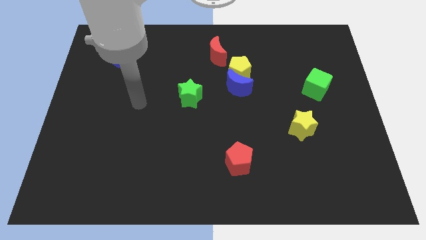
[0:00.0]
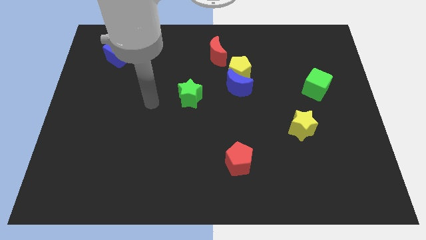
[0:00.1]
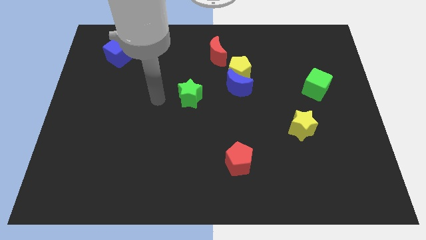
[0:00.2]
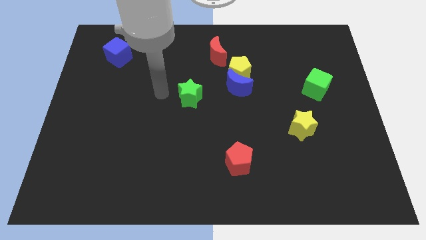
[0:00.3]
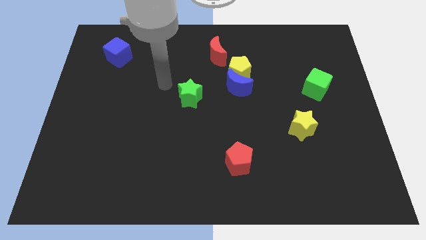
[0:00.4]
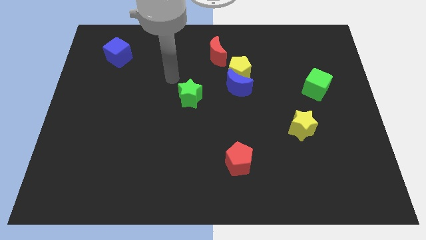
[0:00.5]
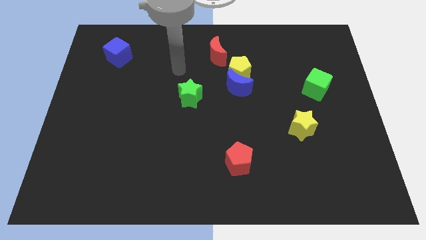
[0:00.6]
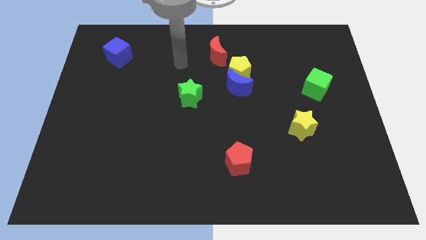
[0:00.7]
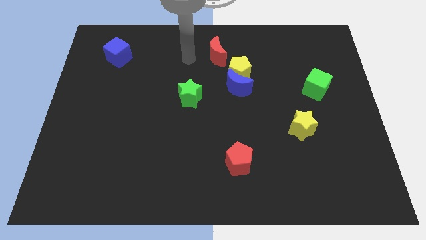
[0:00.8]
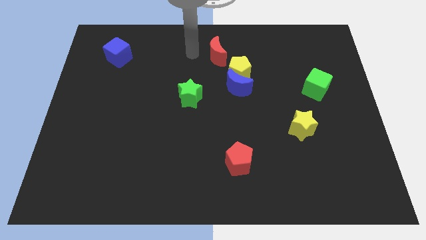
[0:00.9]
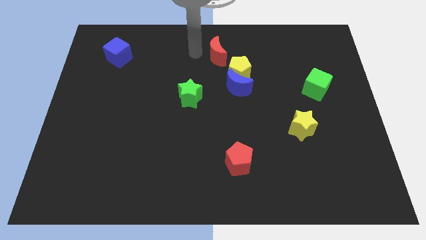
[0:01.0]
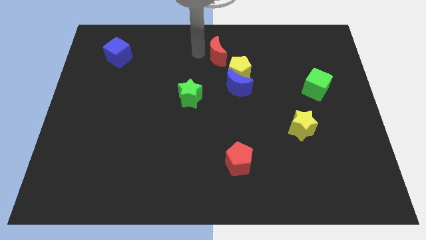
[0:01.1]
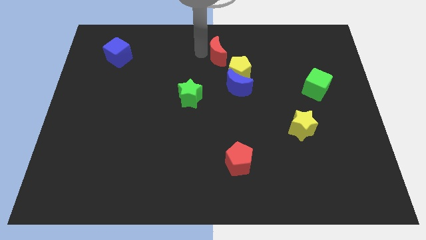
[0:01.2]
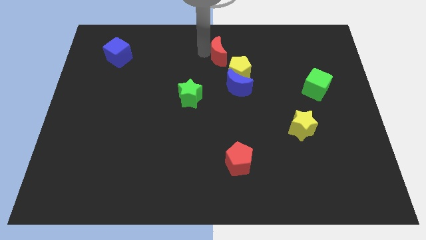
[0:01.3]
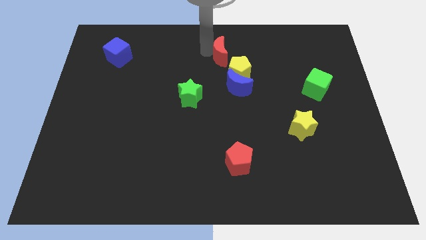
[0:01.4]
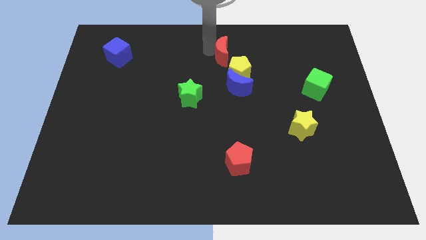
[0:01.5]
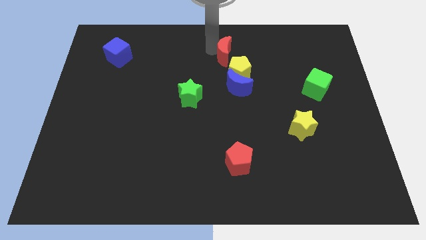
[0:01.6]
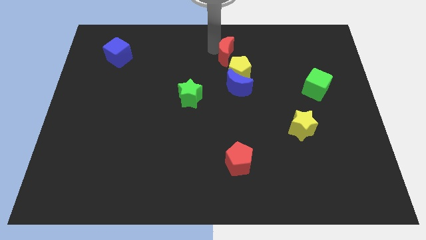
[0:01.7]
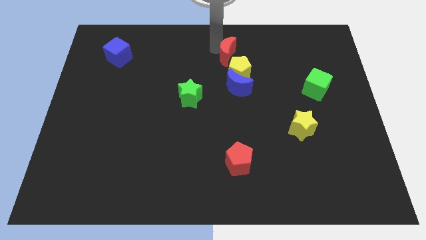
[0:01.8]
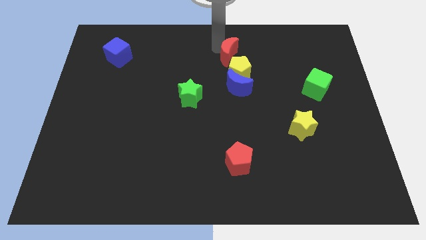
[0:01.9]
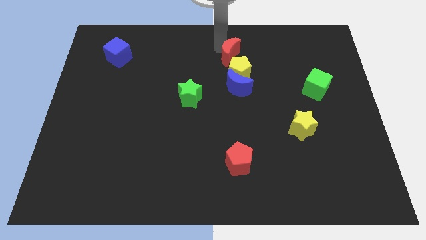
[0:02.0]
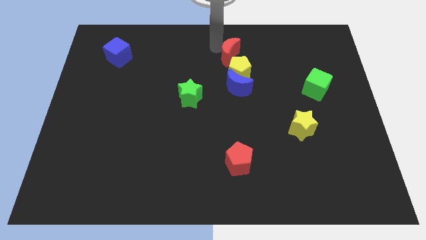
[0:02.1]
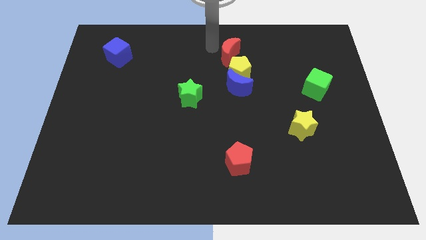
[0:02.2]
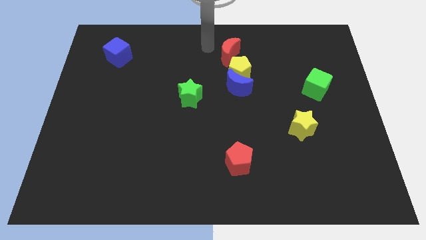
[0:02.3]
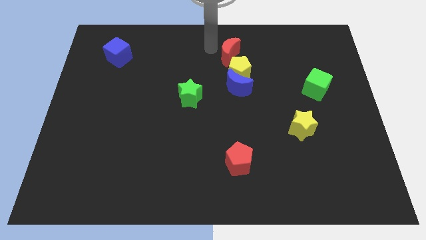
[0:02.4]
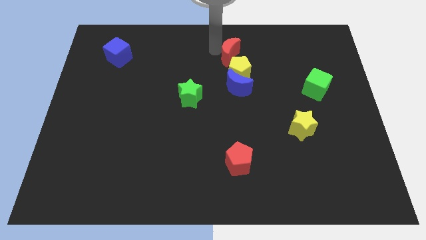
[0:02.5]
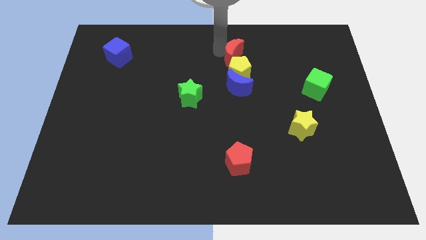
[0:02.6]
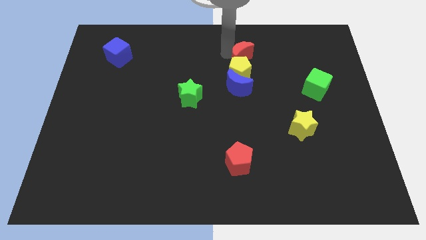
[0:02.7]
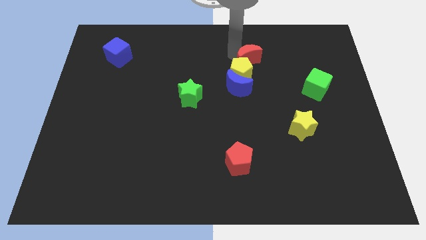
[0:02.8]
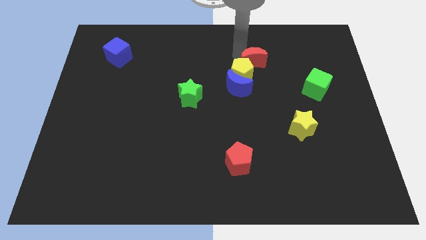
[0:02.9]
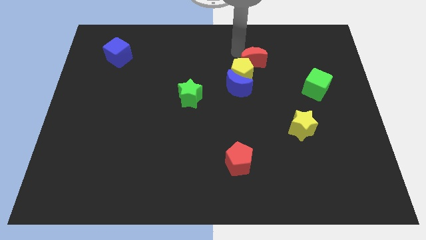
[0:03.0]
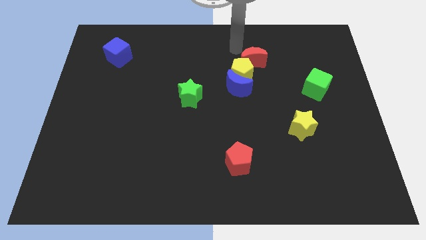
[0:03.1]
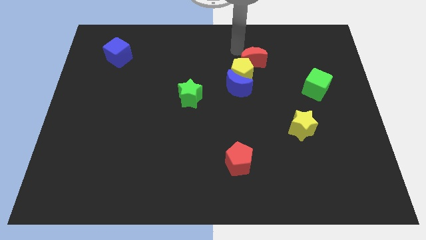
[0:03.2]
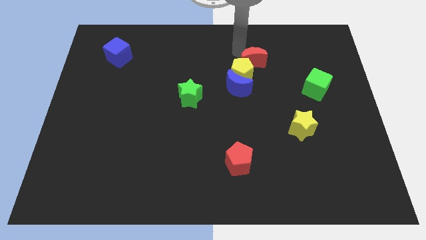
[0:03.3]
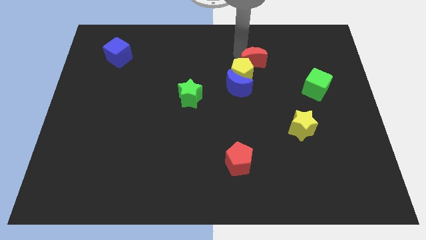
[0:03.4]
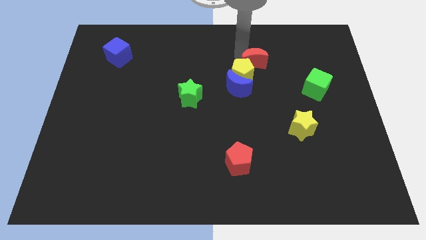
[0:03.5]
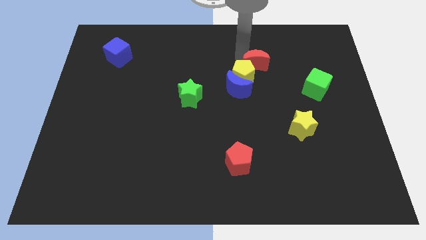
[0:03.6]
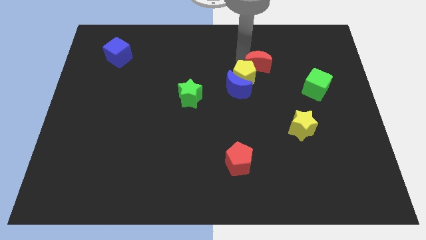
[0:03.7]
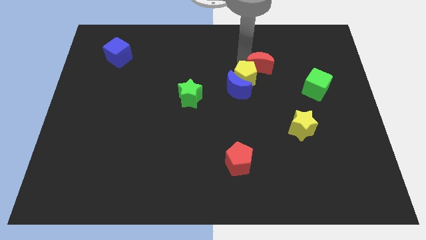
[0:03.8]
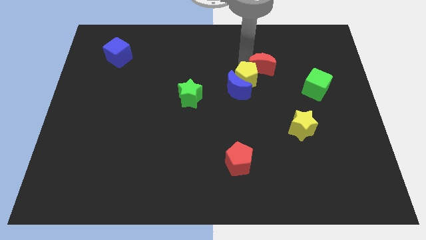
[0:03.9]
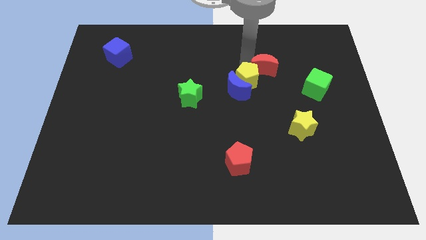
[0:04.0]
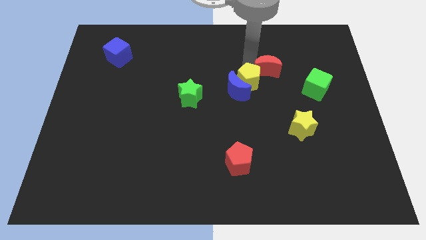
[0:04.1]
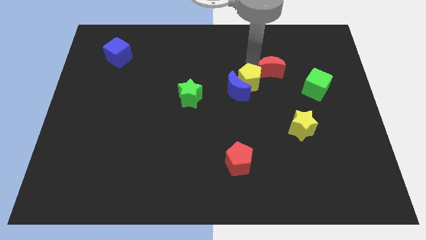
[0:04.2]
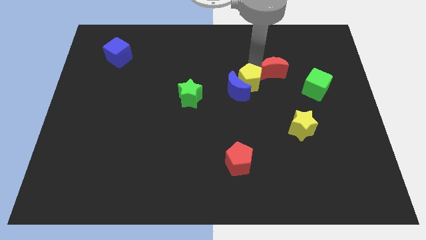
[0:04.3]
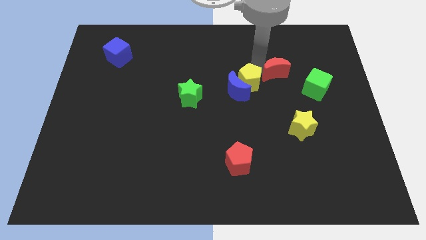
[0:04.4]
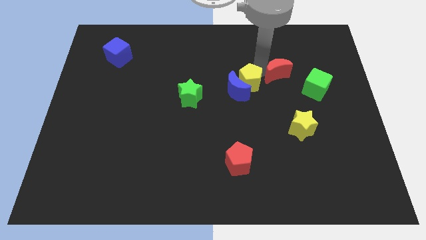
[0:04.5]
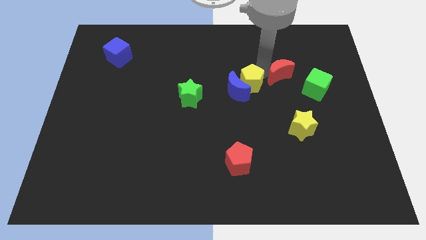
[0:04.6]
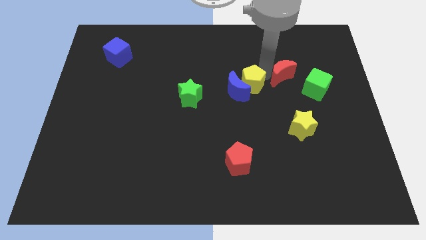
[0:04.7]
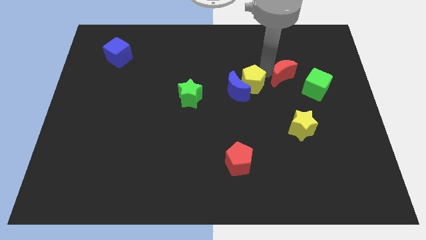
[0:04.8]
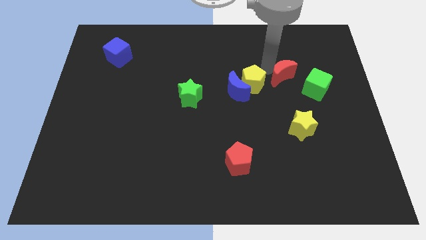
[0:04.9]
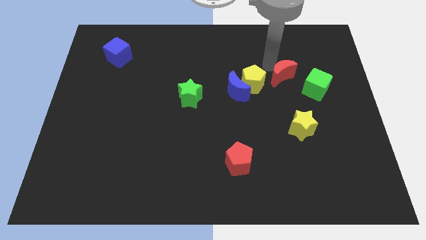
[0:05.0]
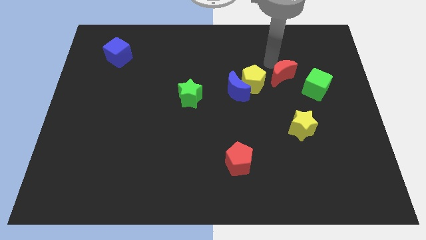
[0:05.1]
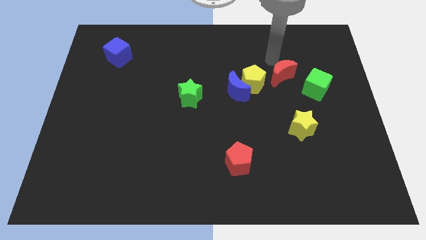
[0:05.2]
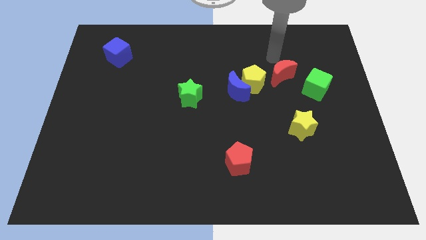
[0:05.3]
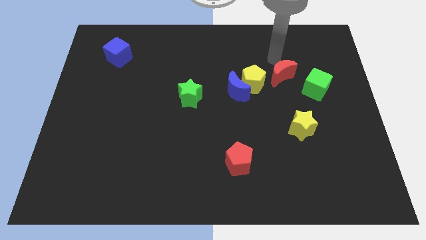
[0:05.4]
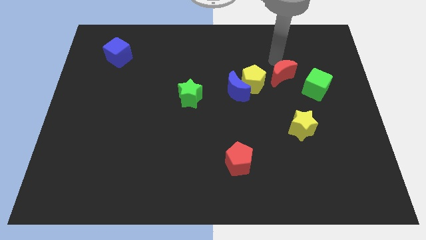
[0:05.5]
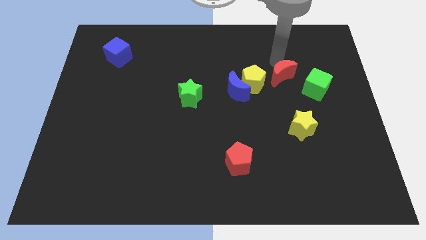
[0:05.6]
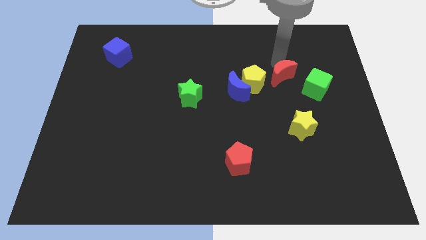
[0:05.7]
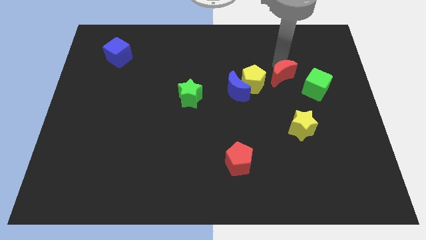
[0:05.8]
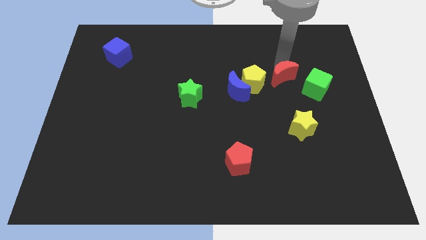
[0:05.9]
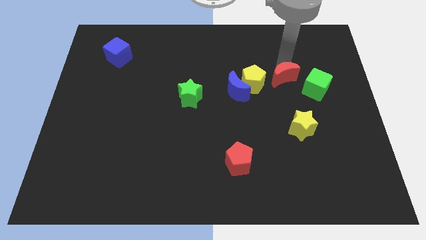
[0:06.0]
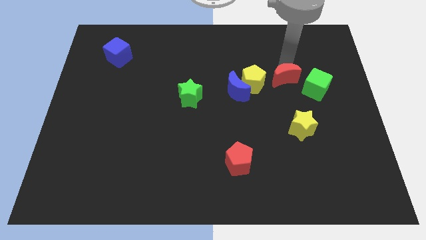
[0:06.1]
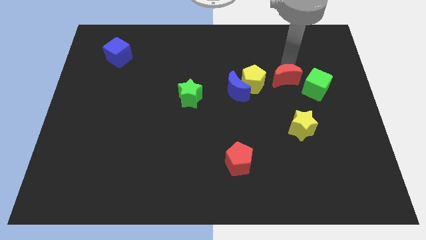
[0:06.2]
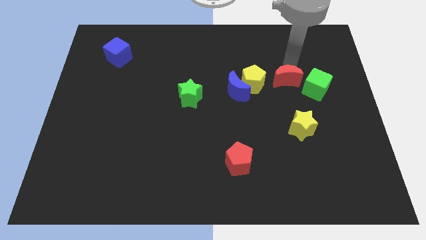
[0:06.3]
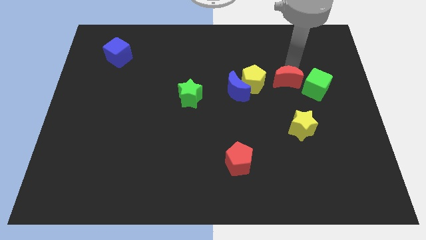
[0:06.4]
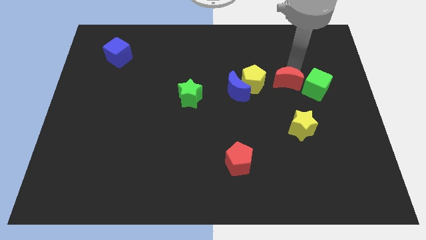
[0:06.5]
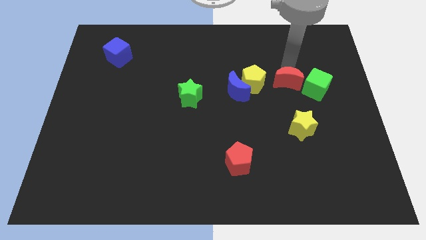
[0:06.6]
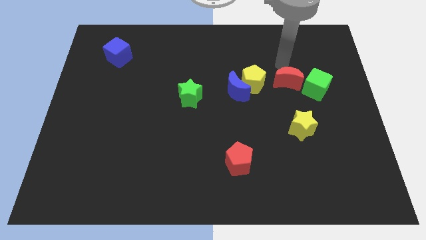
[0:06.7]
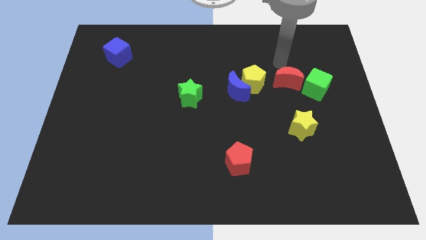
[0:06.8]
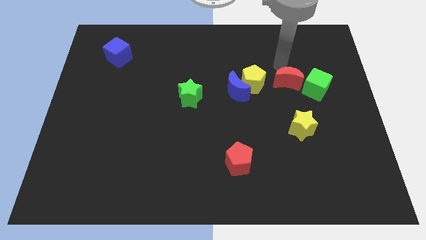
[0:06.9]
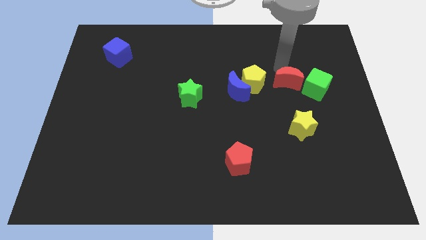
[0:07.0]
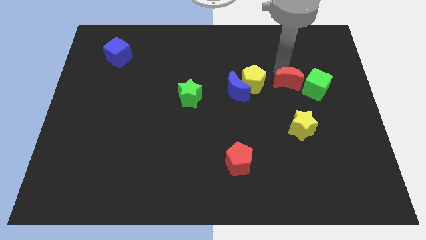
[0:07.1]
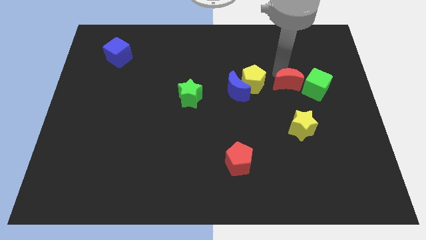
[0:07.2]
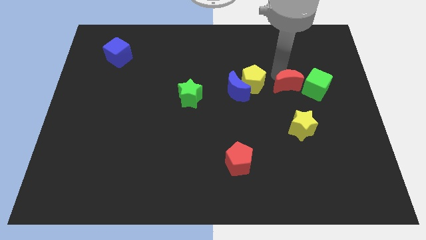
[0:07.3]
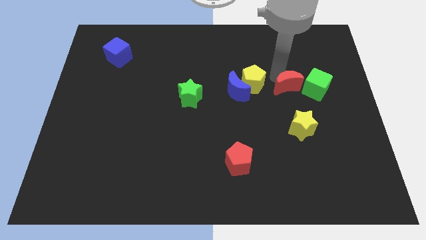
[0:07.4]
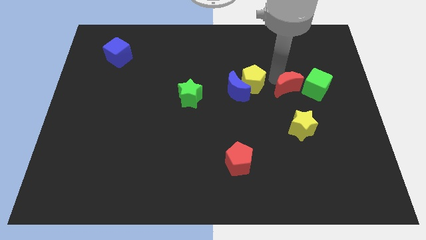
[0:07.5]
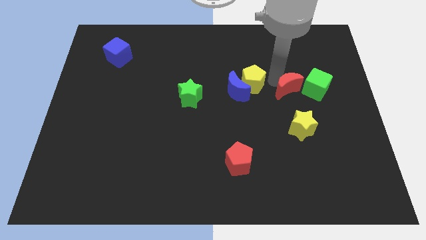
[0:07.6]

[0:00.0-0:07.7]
move the red moon down and right diagonally

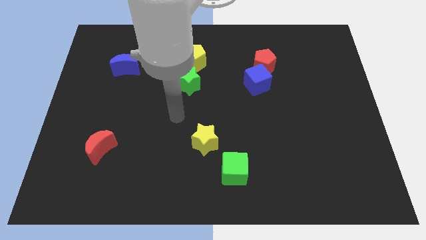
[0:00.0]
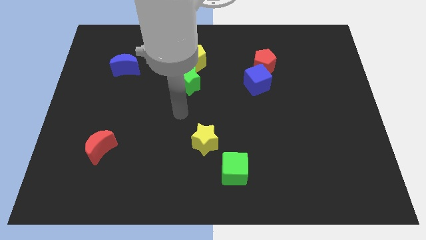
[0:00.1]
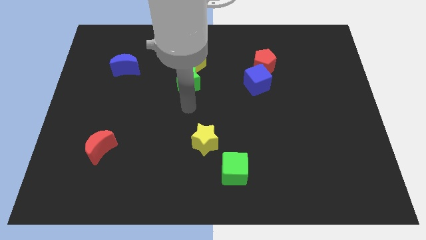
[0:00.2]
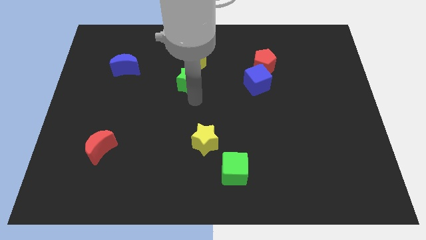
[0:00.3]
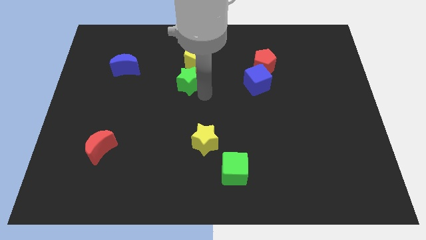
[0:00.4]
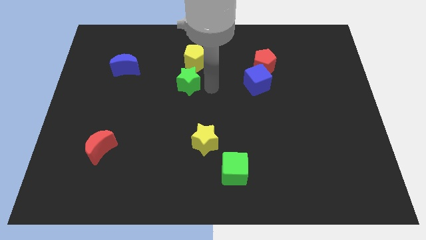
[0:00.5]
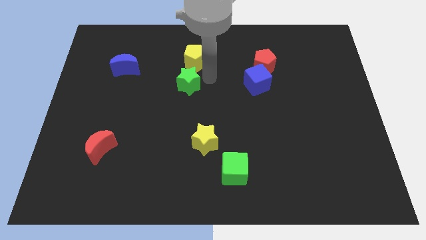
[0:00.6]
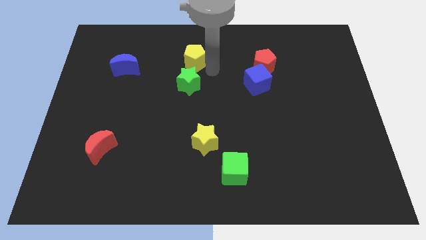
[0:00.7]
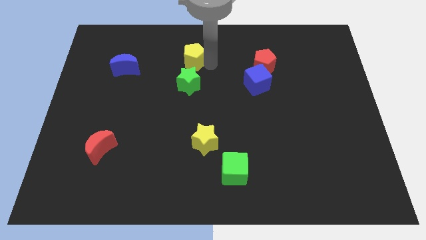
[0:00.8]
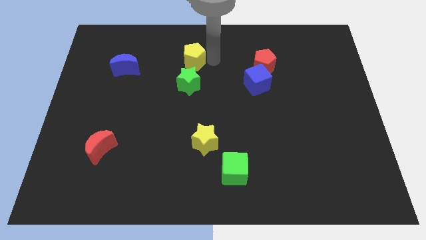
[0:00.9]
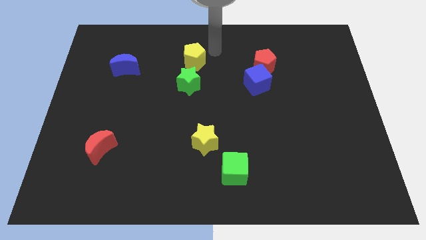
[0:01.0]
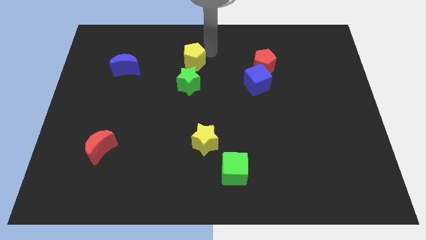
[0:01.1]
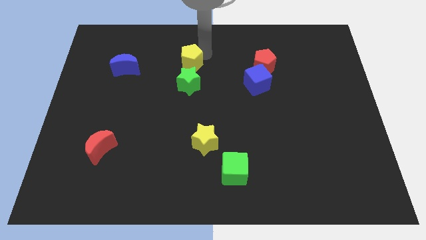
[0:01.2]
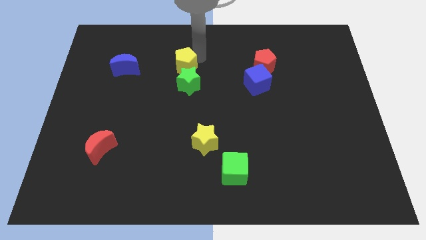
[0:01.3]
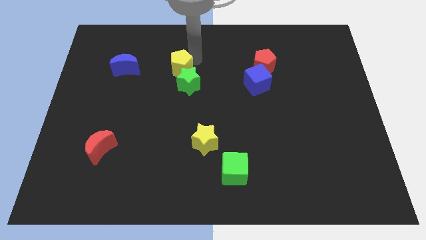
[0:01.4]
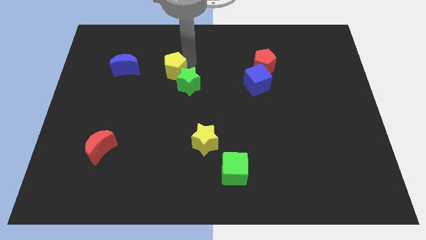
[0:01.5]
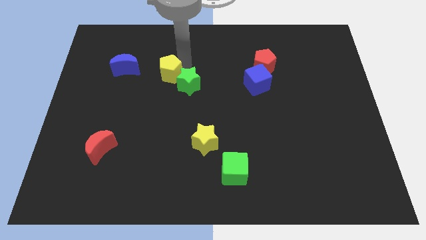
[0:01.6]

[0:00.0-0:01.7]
slide the yellow pentagon diagonally downwards and to the left somewhat
